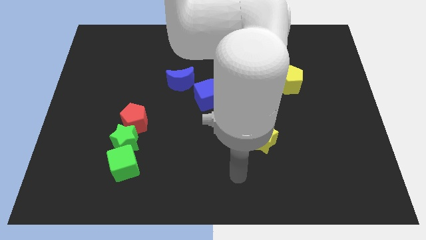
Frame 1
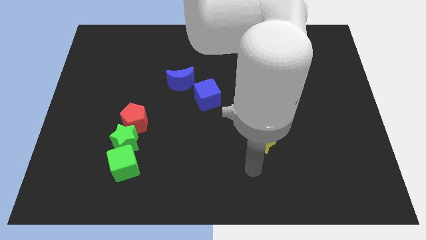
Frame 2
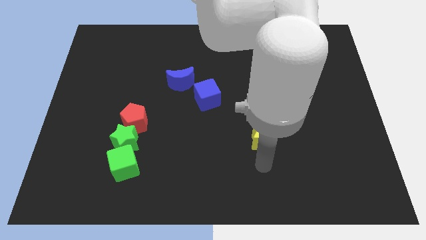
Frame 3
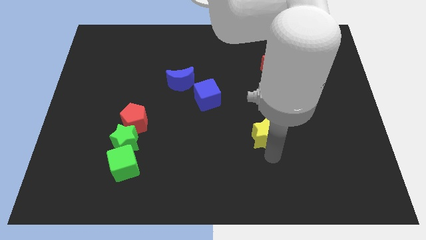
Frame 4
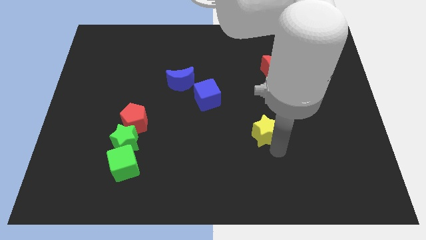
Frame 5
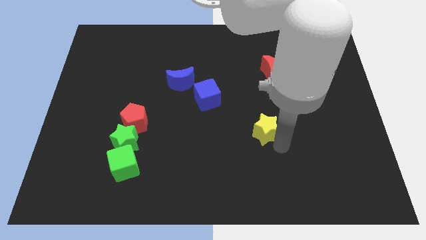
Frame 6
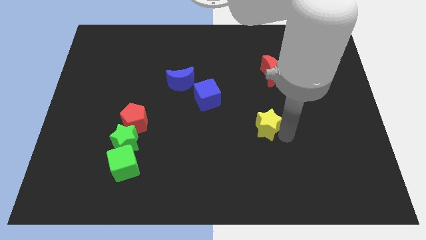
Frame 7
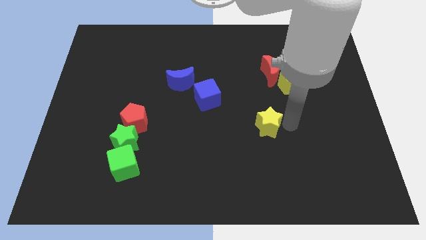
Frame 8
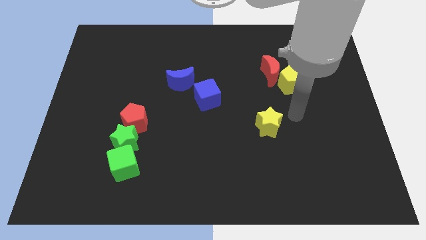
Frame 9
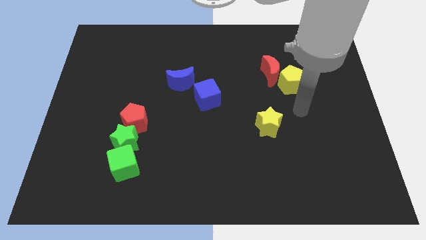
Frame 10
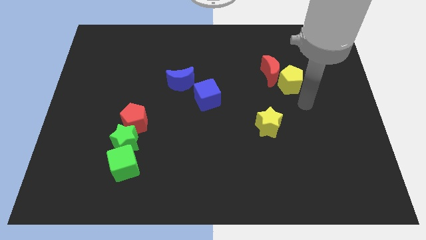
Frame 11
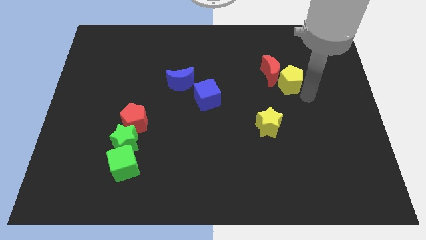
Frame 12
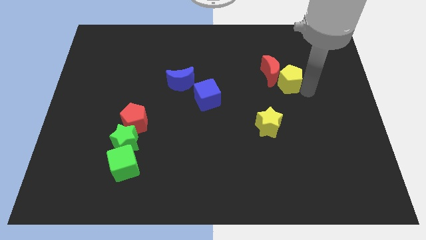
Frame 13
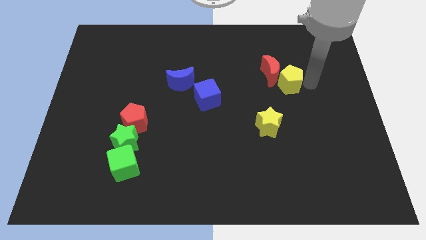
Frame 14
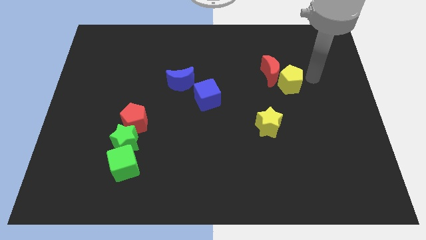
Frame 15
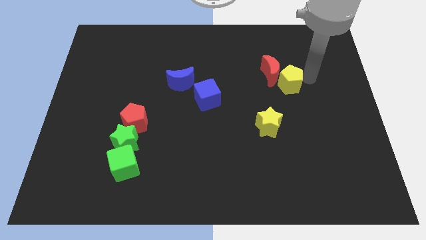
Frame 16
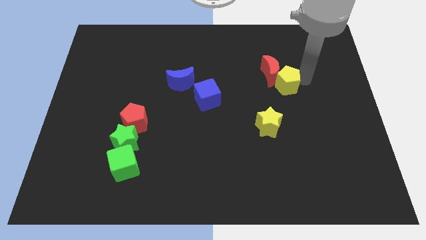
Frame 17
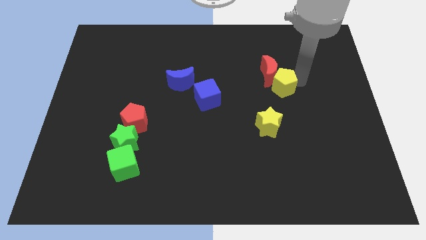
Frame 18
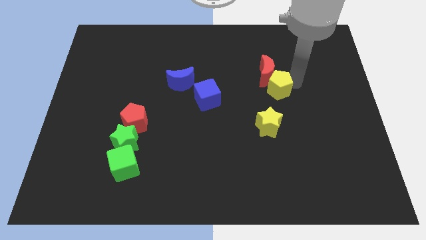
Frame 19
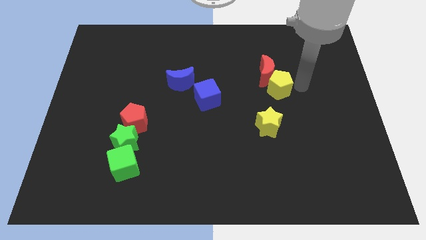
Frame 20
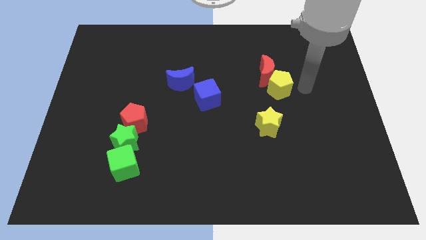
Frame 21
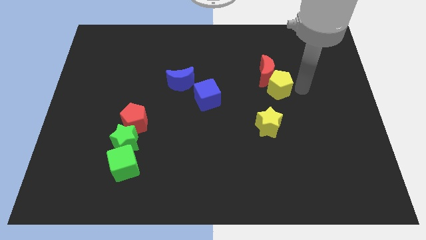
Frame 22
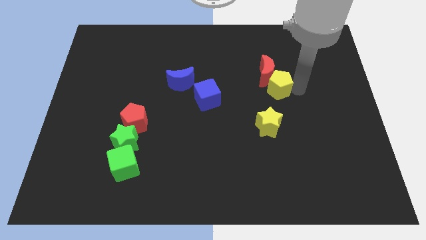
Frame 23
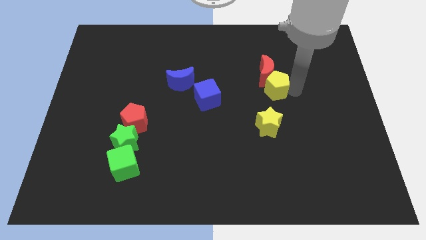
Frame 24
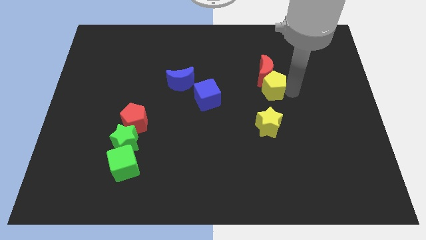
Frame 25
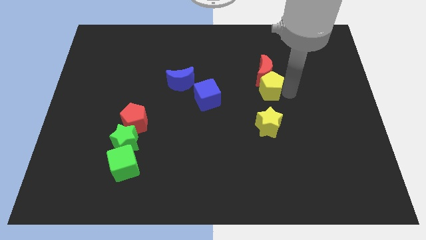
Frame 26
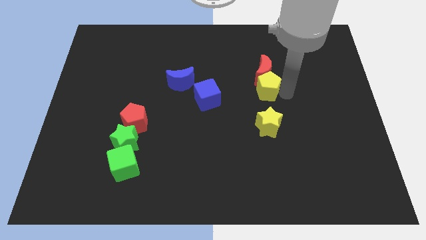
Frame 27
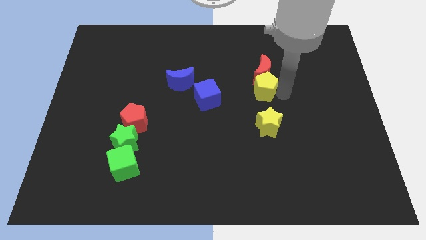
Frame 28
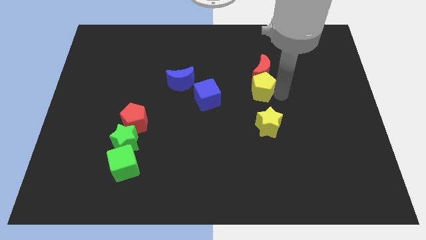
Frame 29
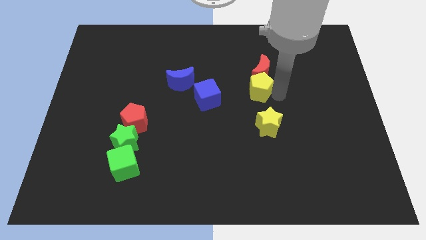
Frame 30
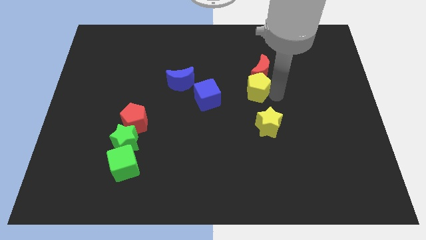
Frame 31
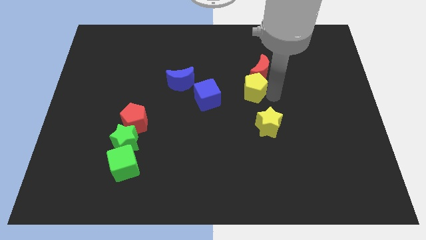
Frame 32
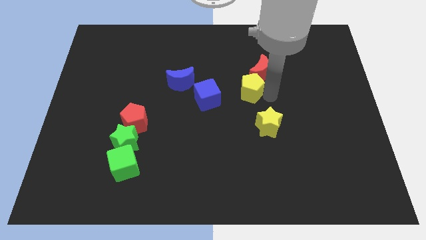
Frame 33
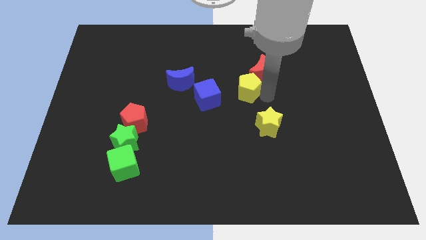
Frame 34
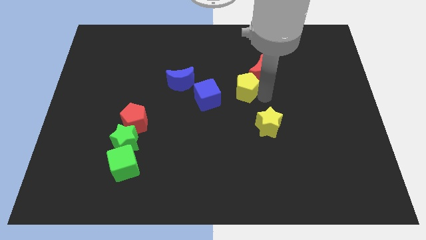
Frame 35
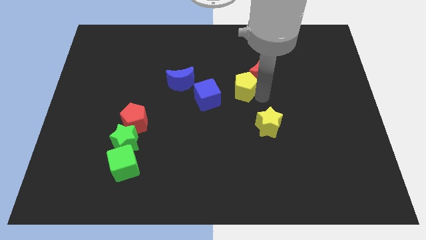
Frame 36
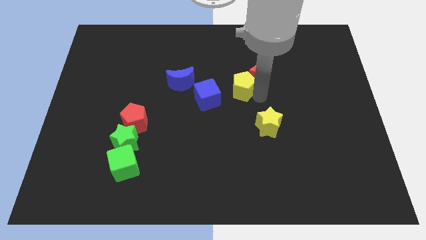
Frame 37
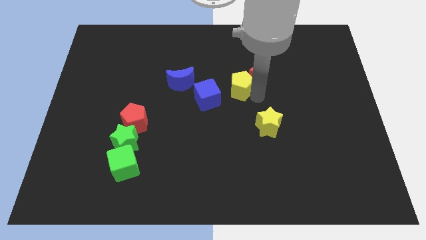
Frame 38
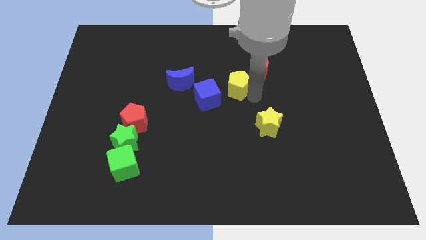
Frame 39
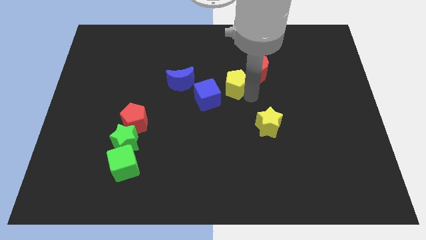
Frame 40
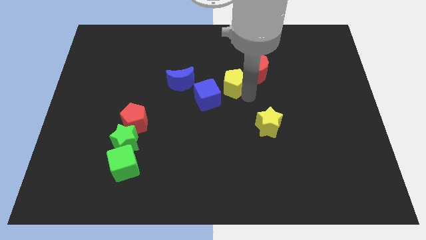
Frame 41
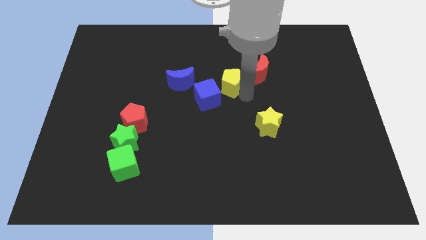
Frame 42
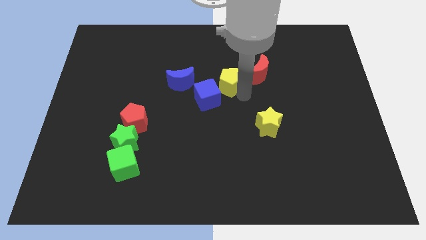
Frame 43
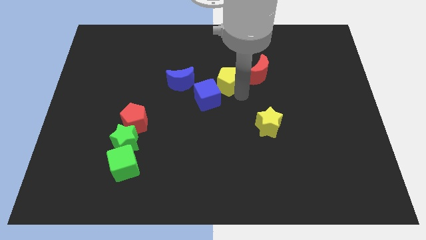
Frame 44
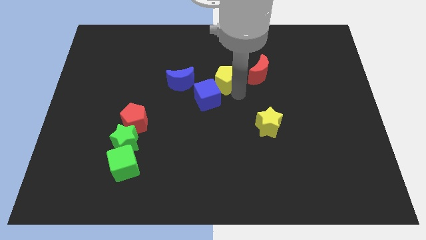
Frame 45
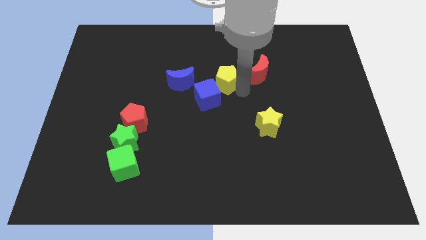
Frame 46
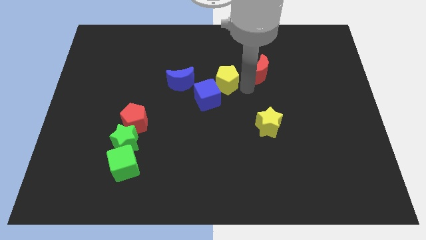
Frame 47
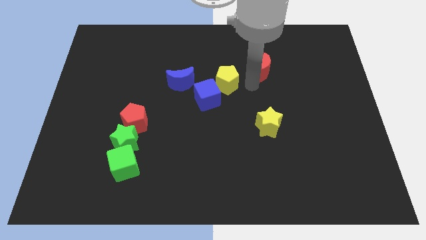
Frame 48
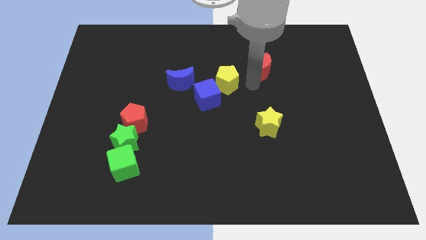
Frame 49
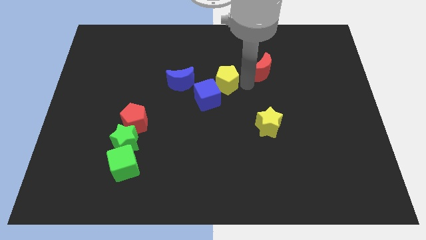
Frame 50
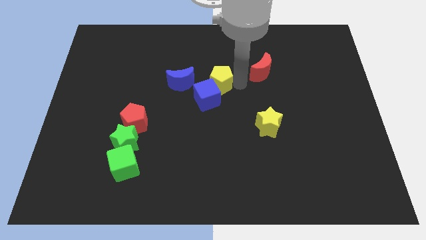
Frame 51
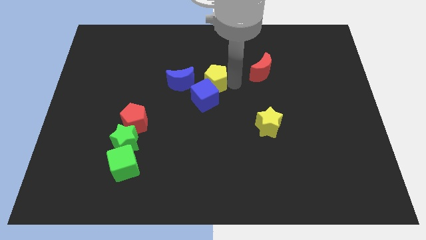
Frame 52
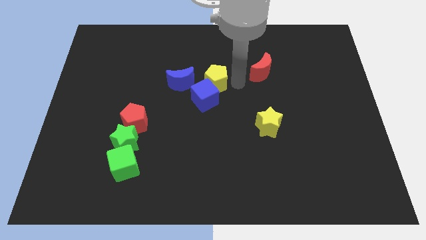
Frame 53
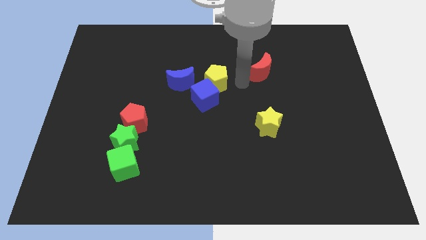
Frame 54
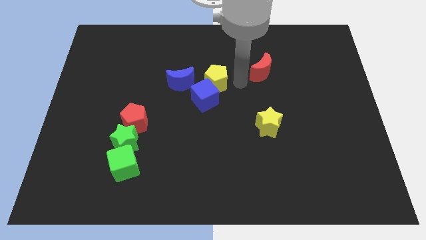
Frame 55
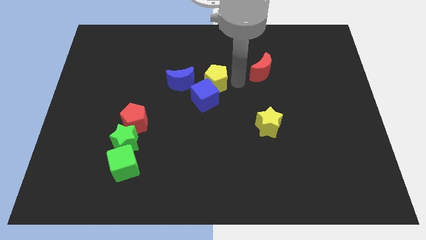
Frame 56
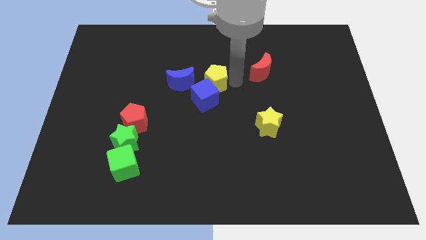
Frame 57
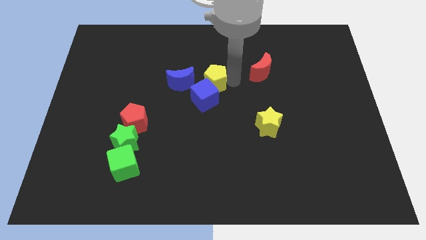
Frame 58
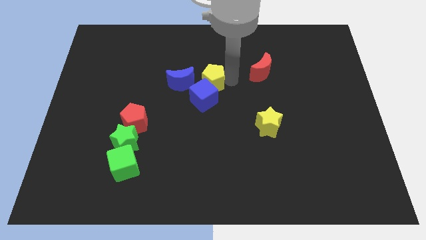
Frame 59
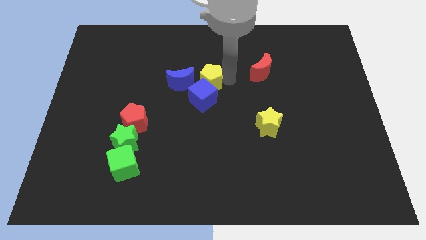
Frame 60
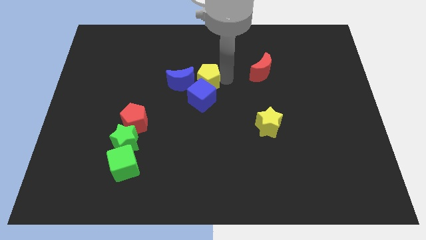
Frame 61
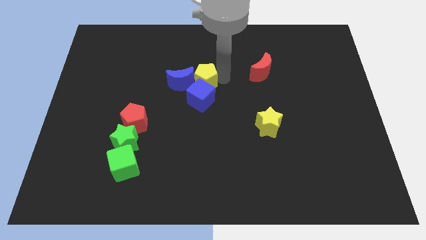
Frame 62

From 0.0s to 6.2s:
push the yellow pentagon next to the blue moon
